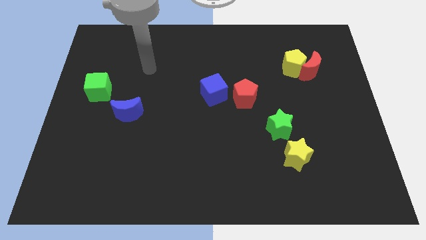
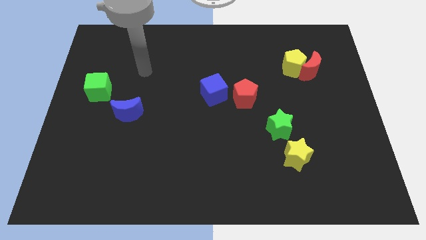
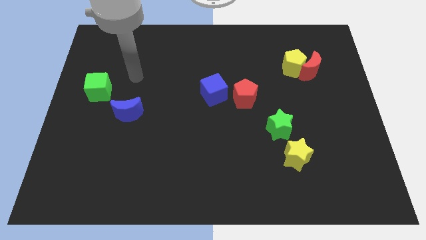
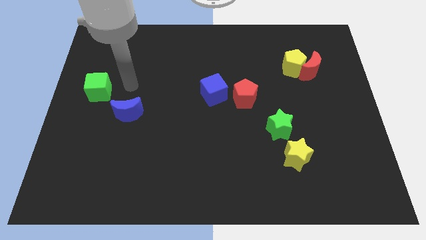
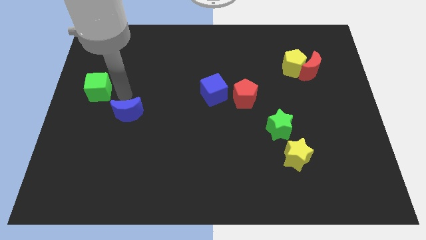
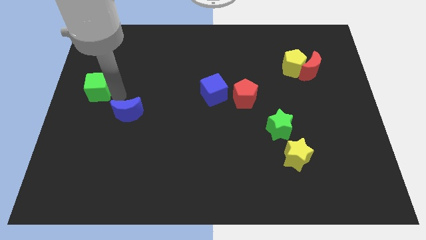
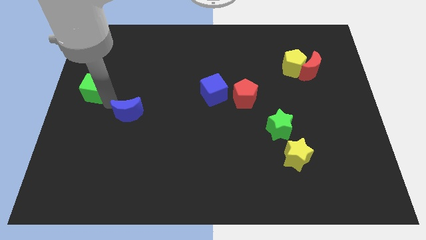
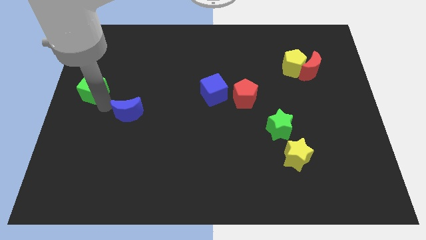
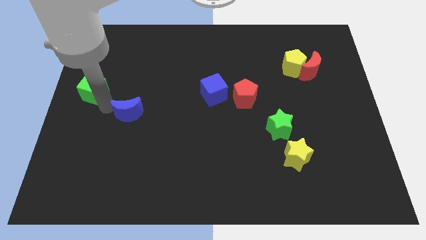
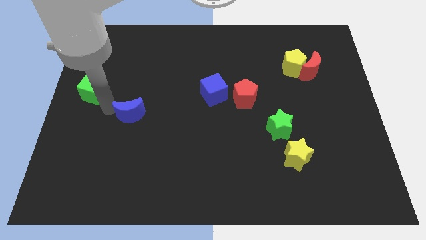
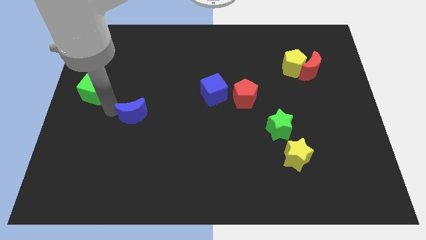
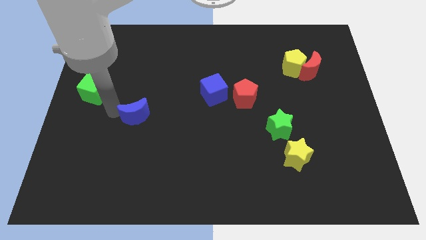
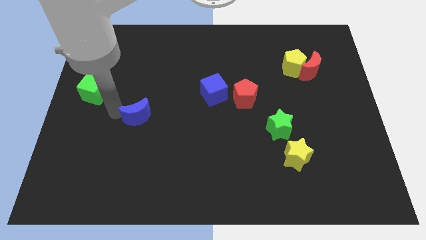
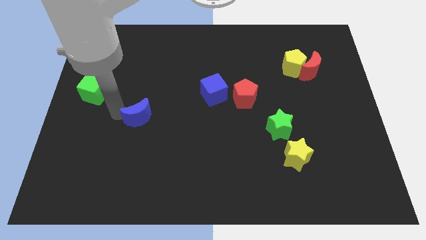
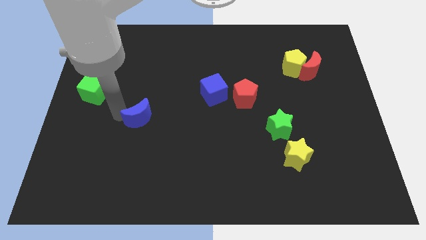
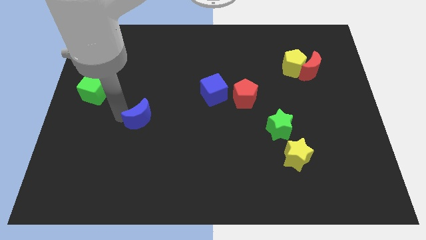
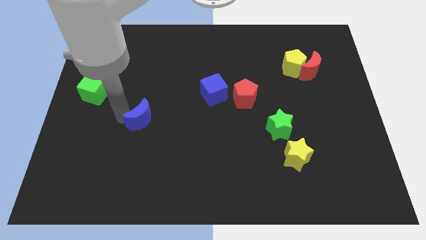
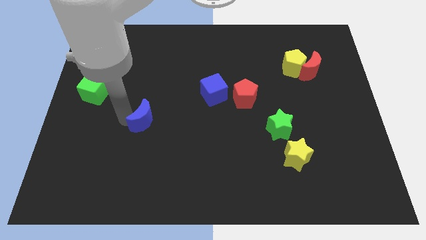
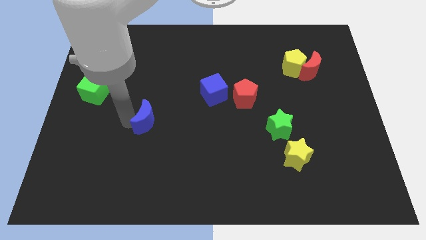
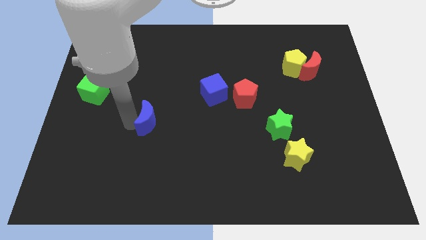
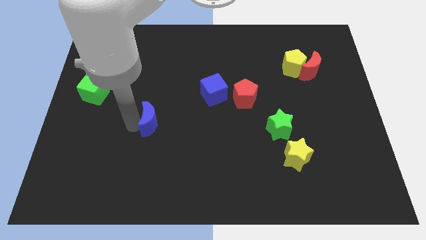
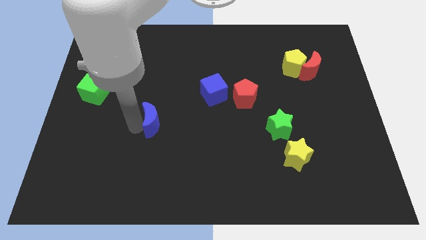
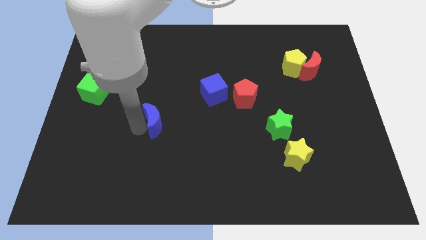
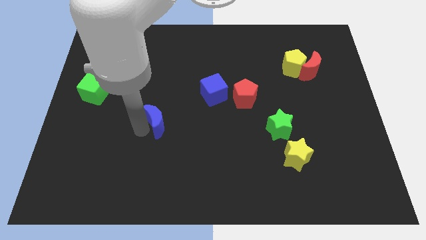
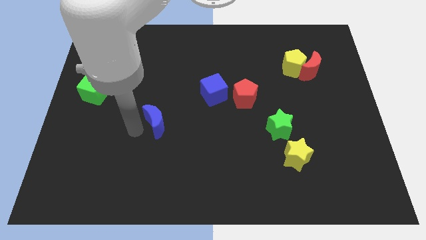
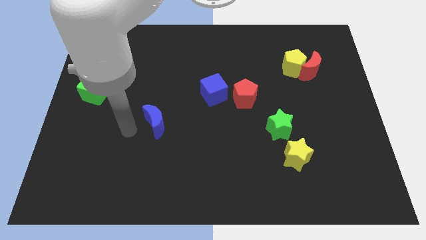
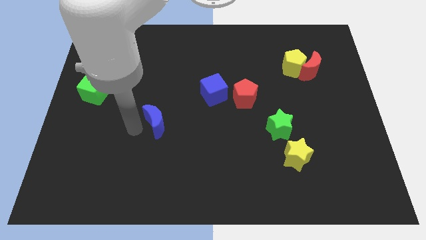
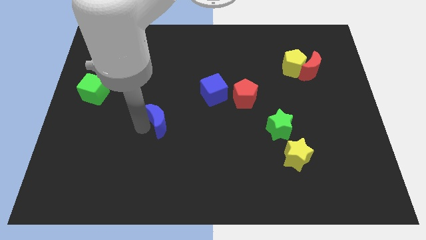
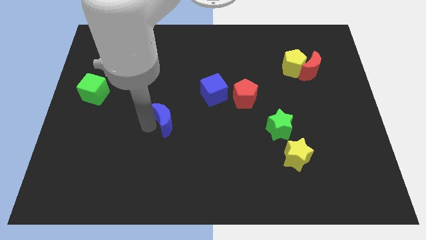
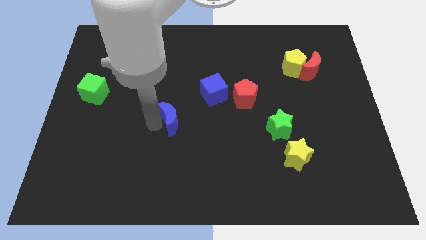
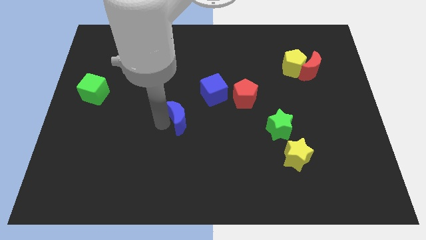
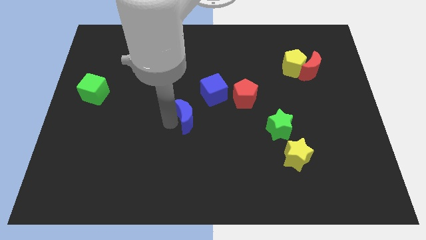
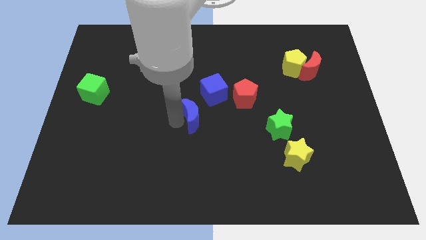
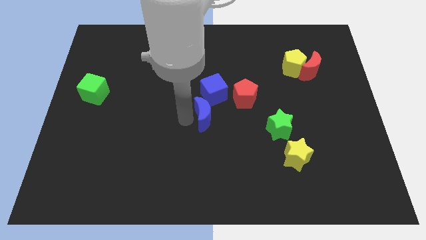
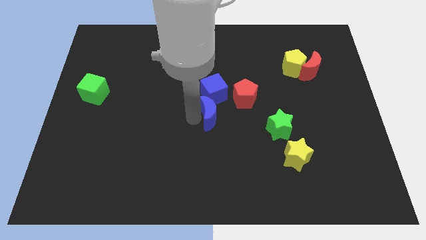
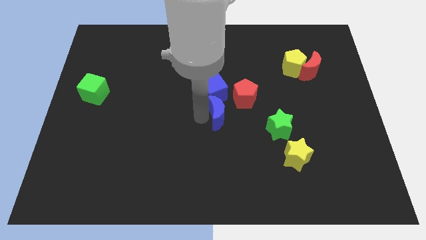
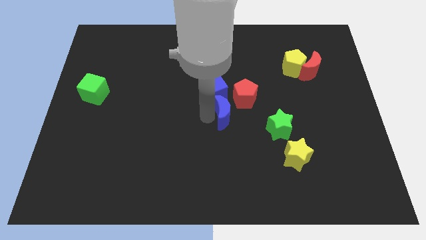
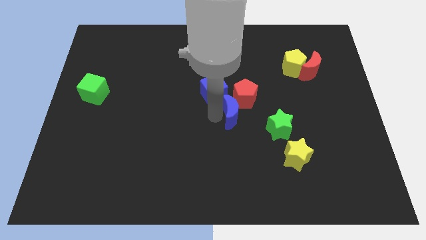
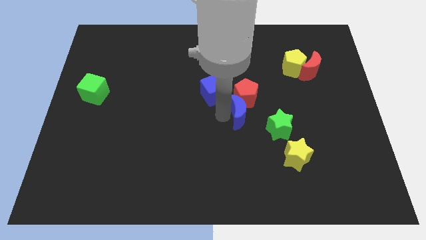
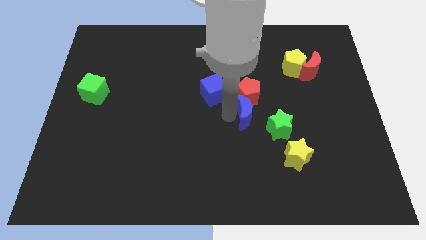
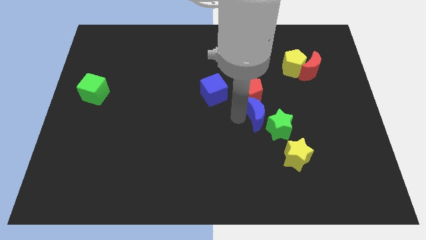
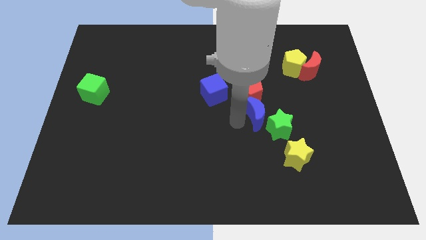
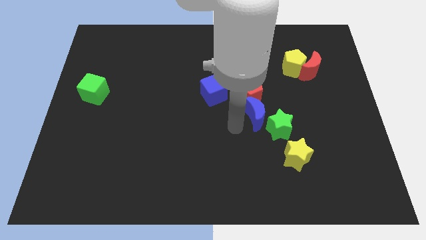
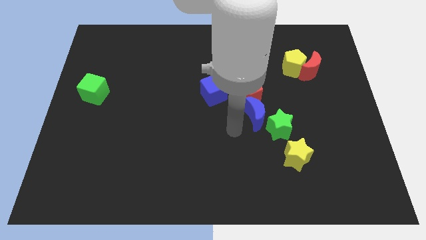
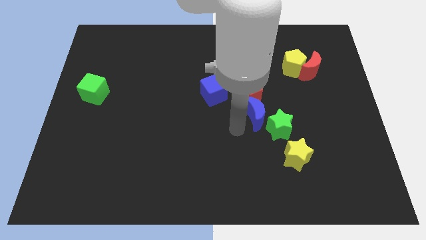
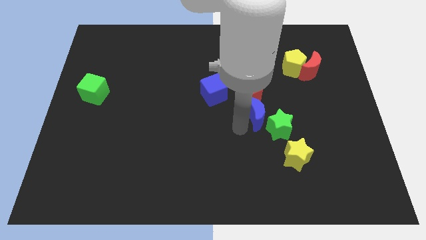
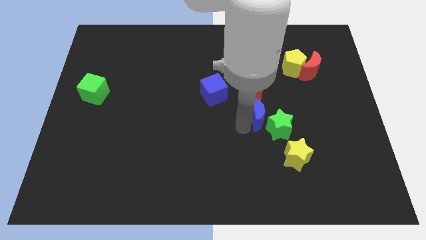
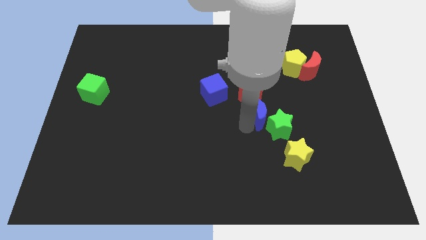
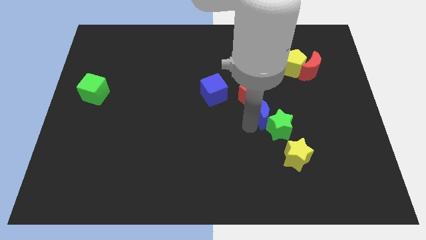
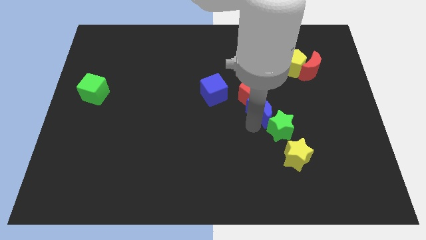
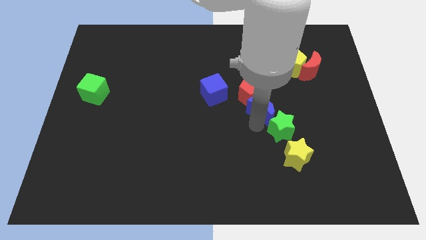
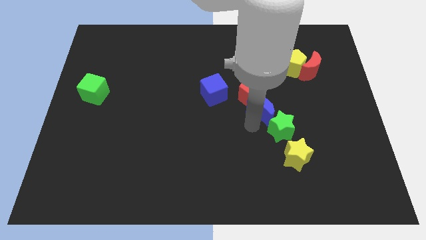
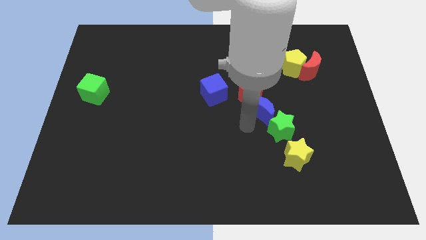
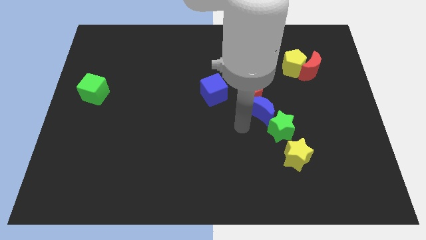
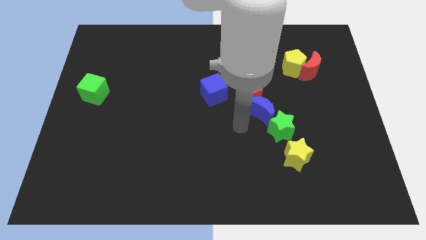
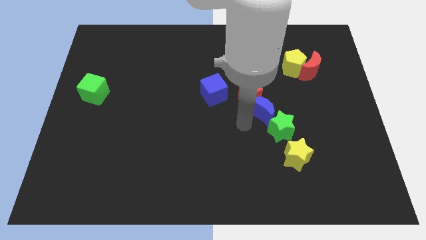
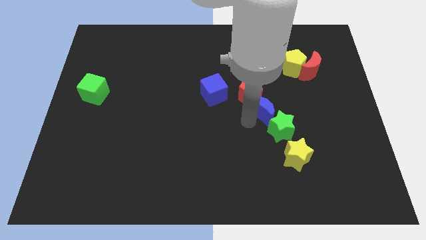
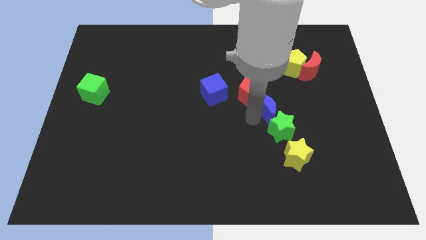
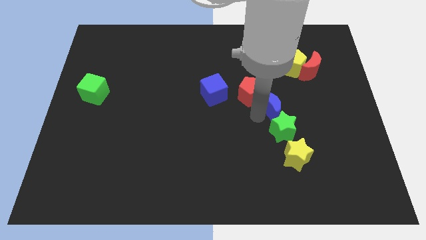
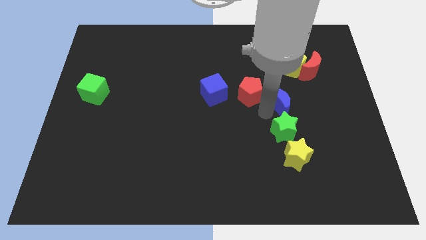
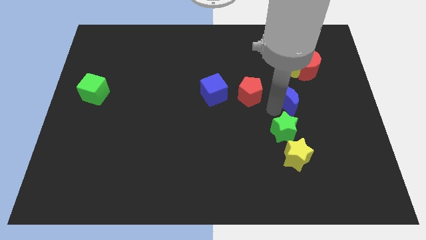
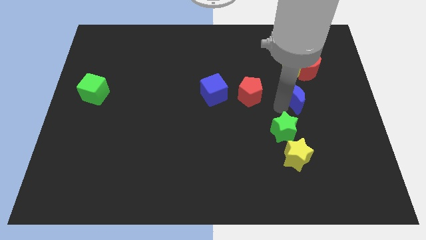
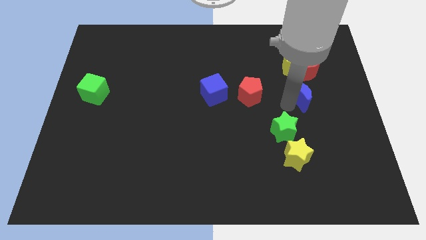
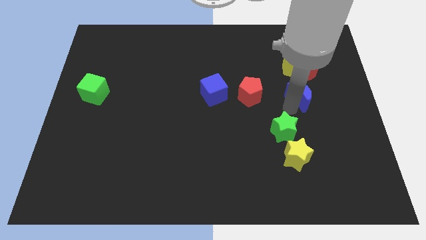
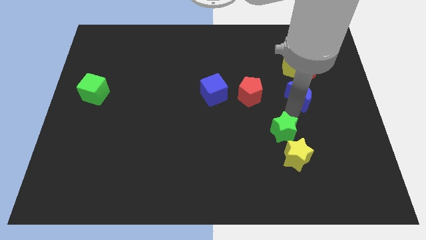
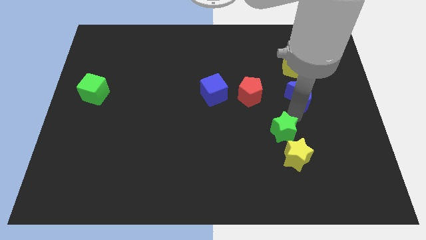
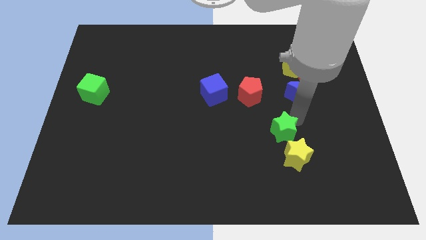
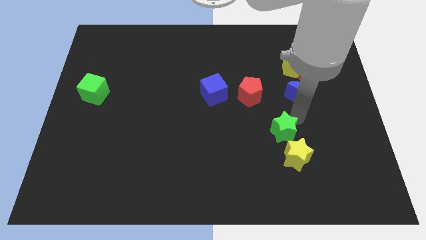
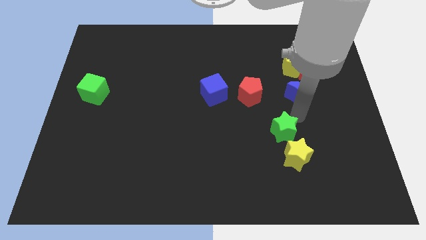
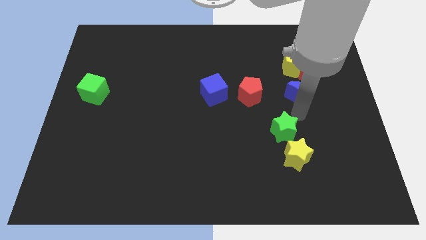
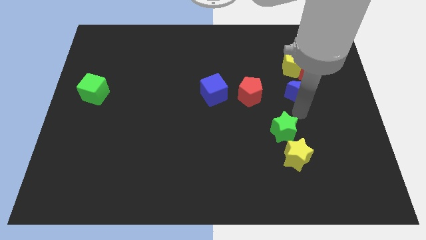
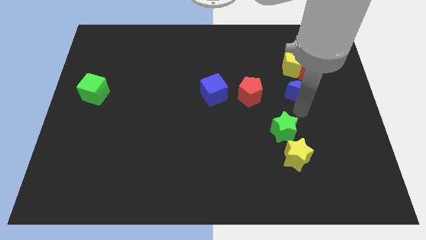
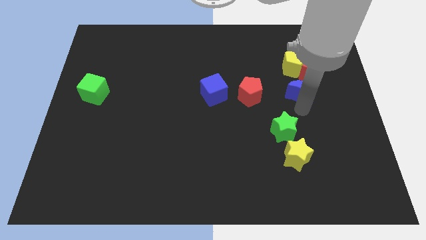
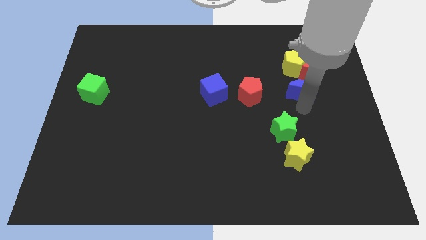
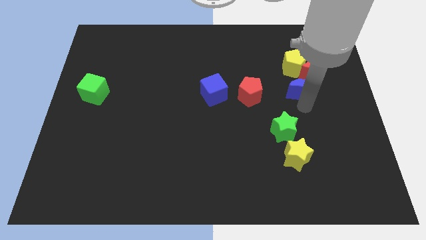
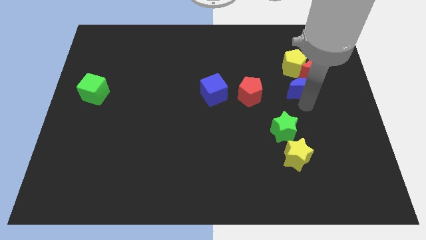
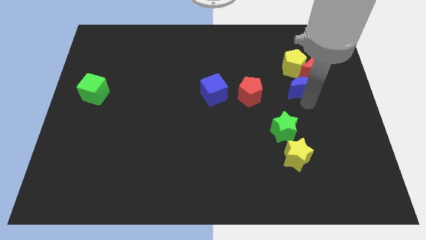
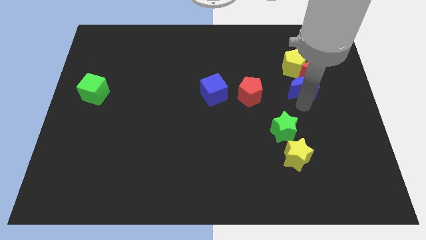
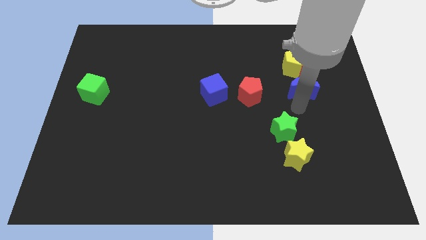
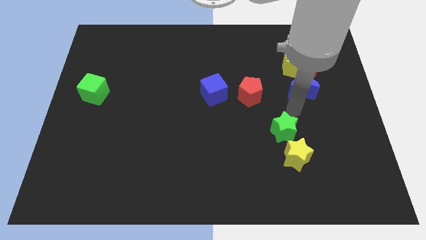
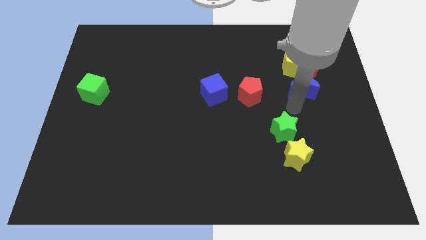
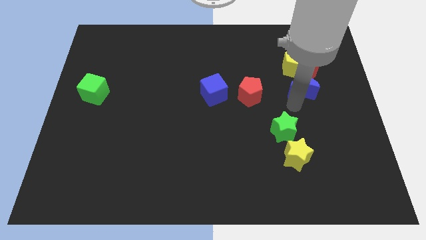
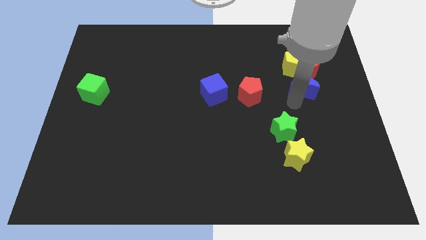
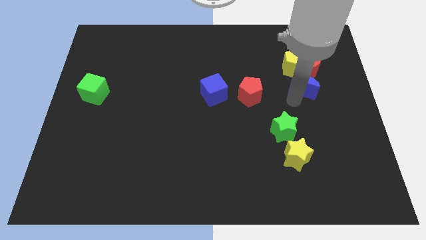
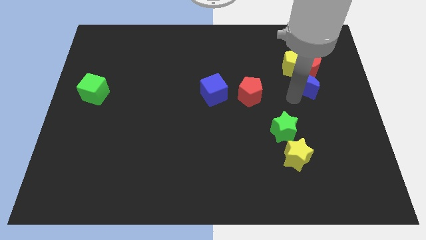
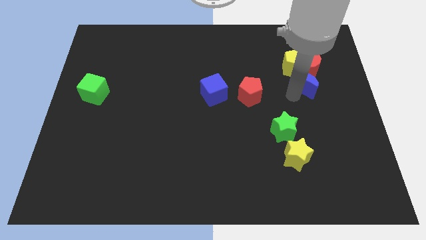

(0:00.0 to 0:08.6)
push the blue moon next to the red moon
